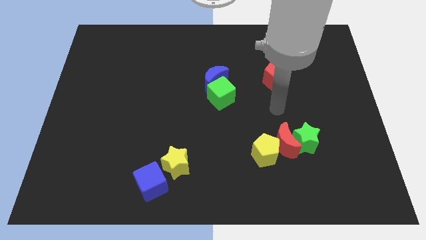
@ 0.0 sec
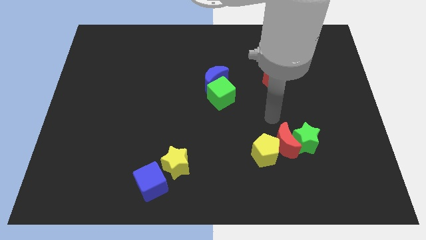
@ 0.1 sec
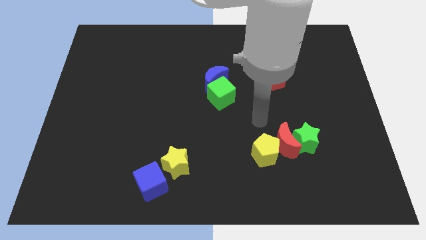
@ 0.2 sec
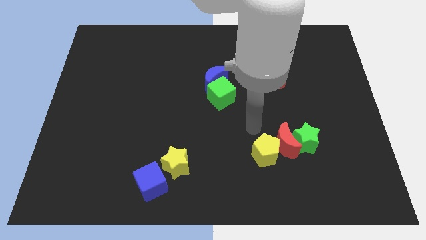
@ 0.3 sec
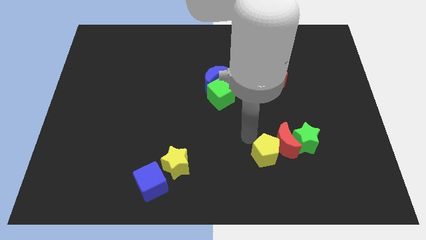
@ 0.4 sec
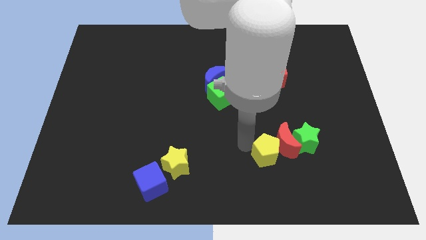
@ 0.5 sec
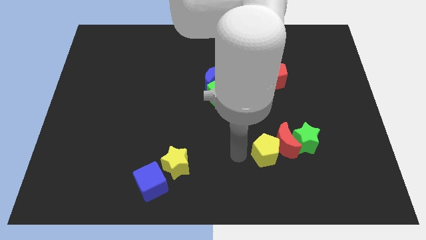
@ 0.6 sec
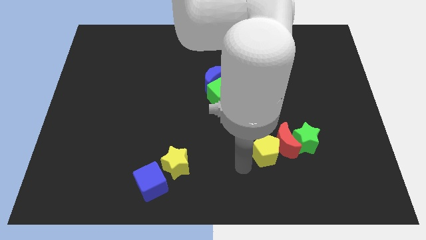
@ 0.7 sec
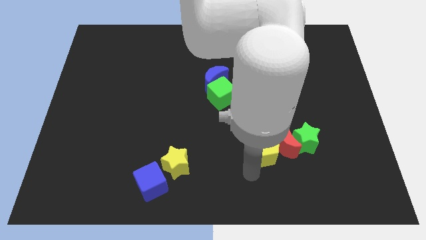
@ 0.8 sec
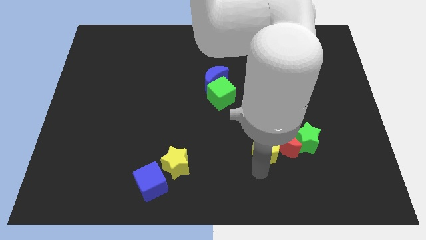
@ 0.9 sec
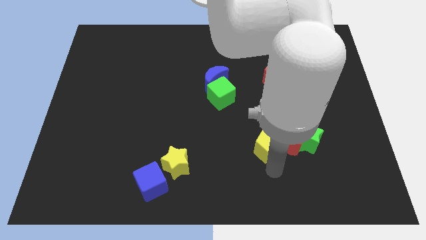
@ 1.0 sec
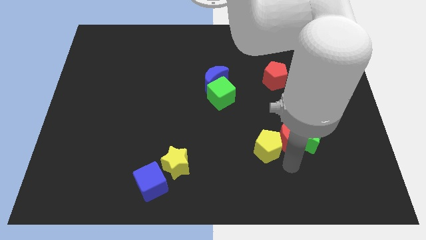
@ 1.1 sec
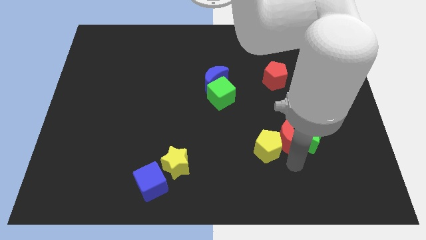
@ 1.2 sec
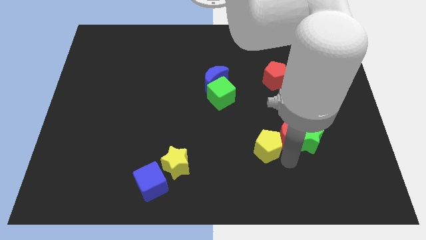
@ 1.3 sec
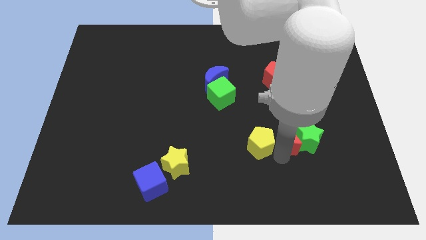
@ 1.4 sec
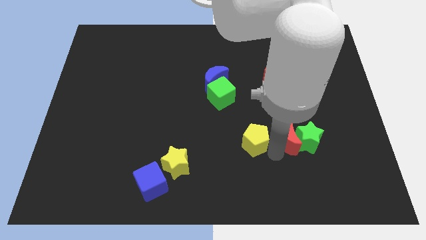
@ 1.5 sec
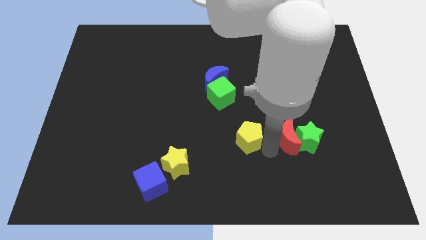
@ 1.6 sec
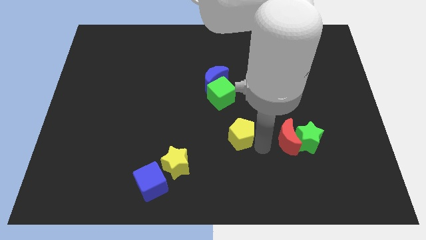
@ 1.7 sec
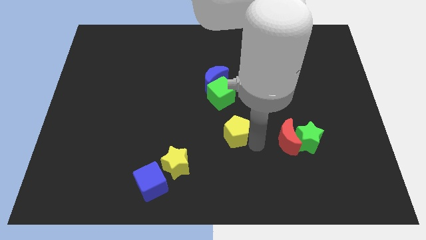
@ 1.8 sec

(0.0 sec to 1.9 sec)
slightly move the yellow pentagon up and to the left diagonally

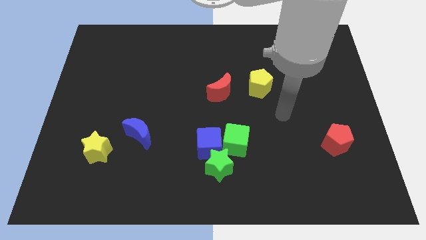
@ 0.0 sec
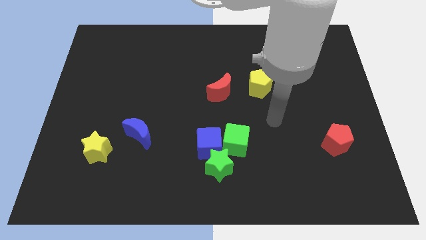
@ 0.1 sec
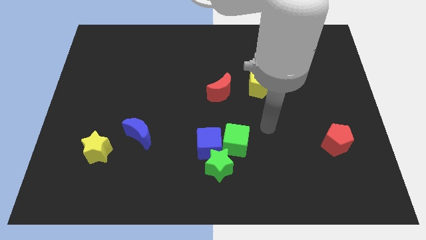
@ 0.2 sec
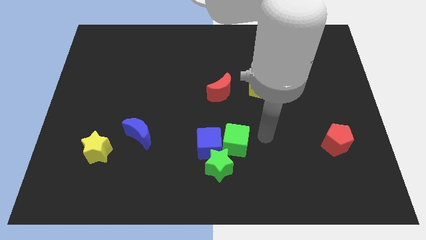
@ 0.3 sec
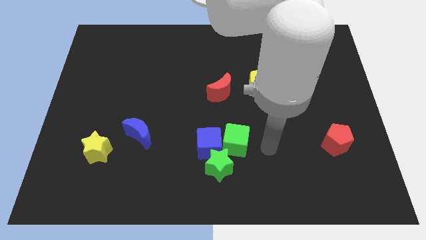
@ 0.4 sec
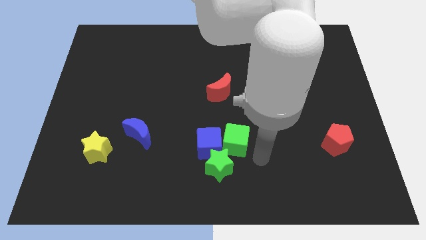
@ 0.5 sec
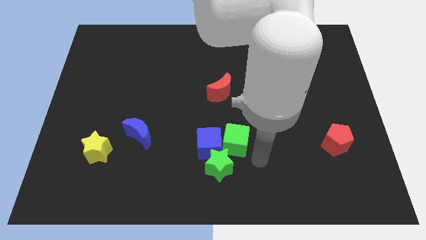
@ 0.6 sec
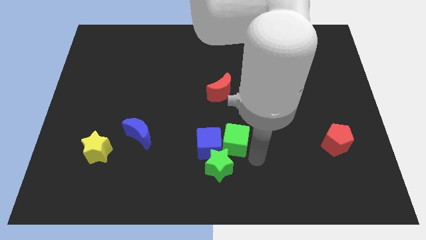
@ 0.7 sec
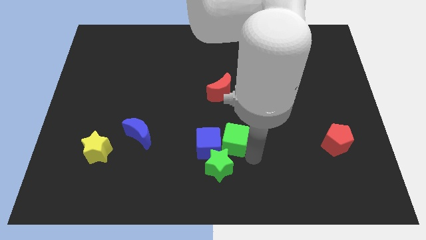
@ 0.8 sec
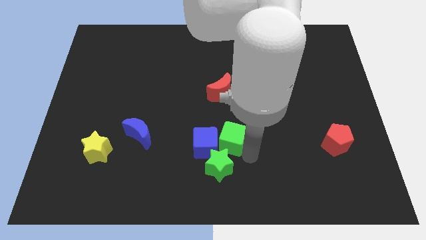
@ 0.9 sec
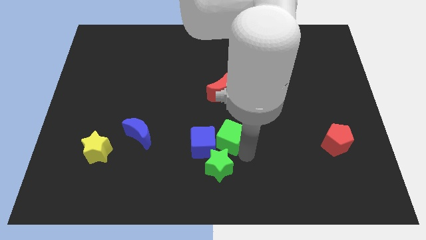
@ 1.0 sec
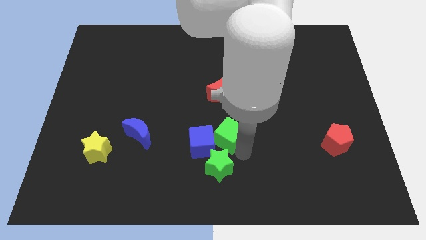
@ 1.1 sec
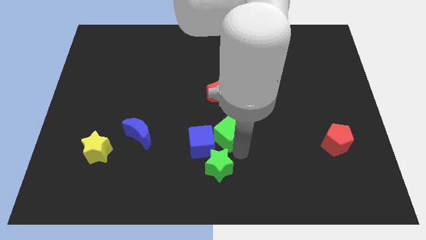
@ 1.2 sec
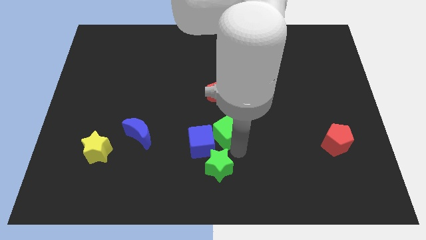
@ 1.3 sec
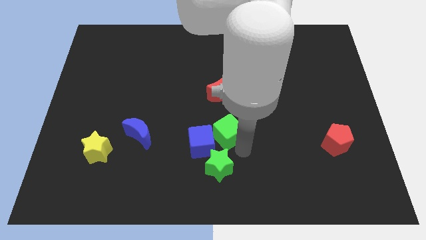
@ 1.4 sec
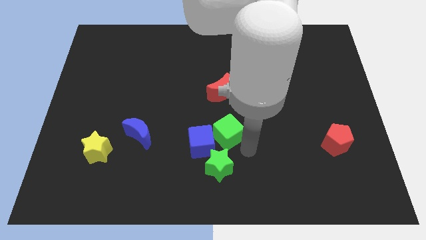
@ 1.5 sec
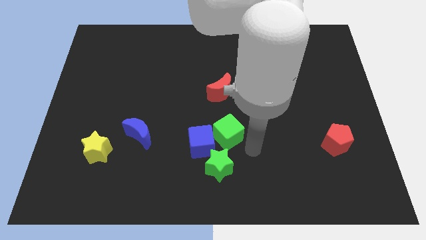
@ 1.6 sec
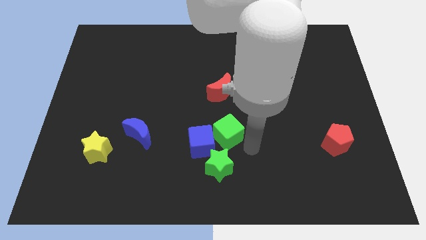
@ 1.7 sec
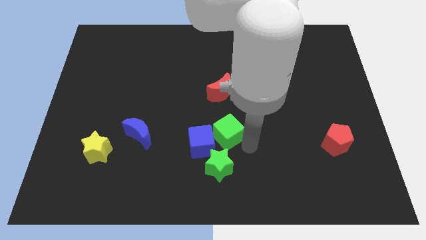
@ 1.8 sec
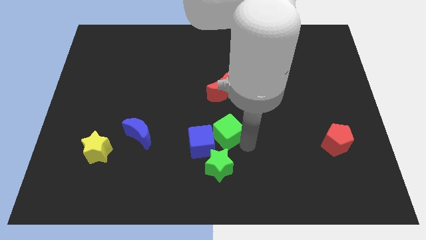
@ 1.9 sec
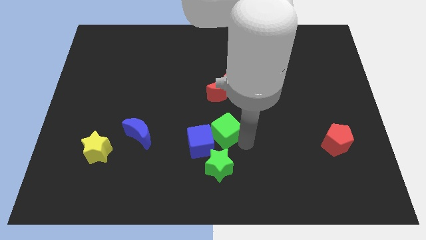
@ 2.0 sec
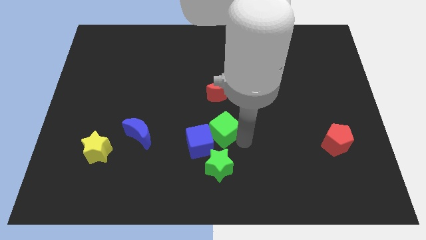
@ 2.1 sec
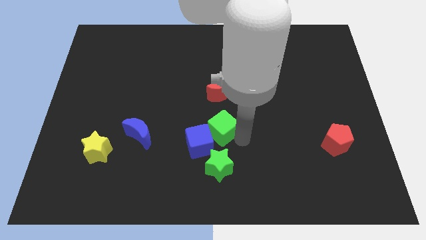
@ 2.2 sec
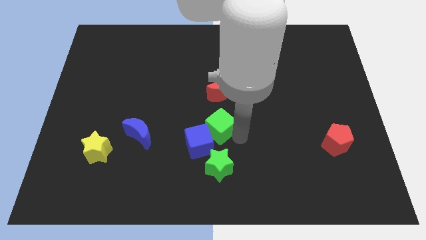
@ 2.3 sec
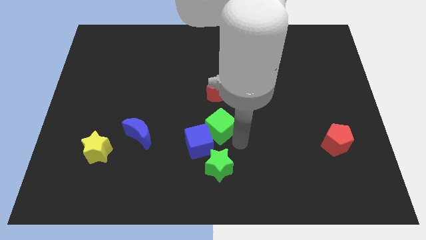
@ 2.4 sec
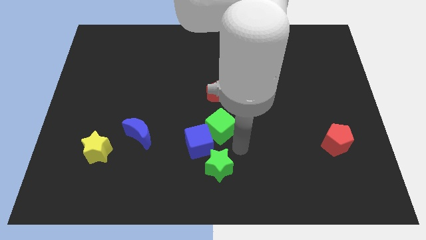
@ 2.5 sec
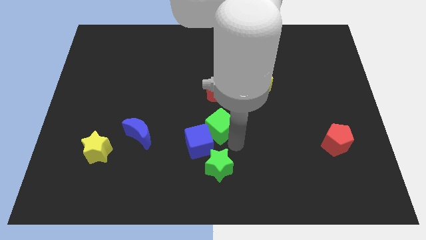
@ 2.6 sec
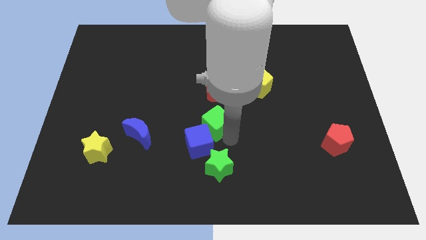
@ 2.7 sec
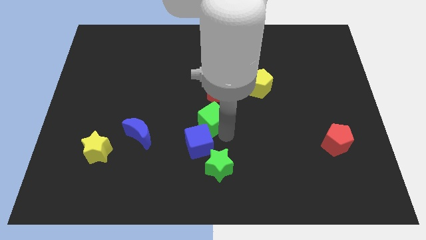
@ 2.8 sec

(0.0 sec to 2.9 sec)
slide the green cube up and left a little

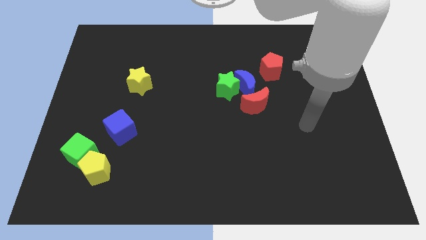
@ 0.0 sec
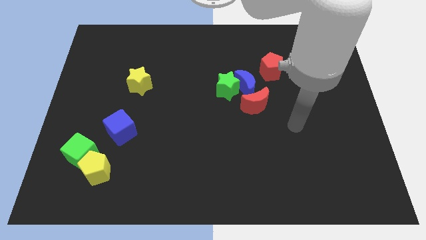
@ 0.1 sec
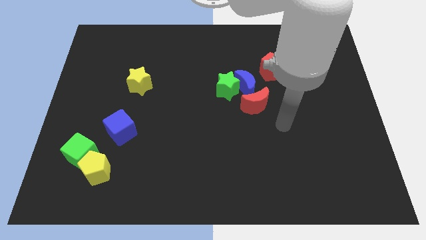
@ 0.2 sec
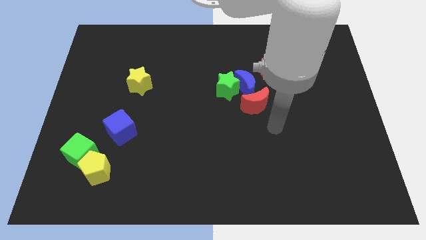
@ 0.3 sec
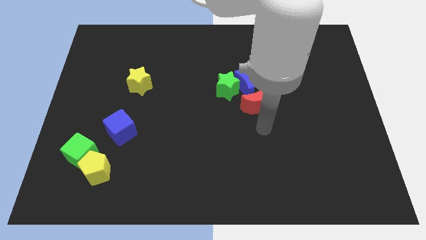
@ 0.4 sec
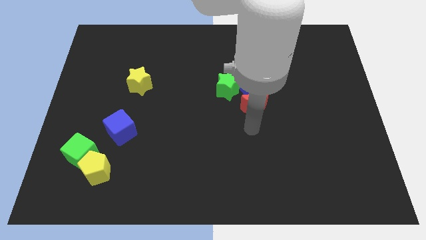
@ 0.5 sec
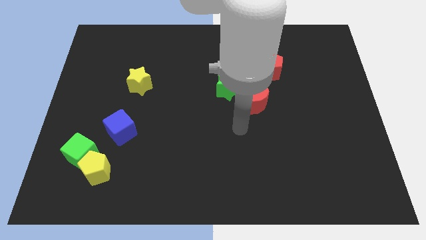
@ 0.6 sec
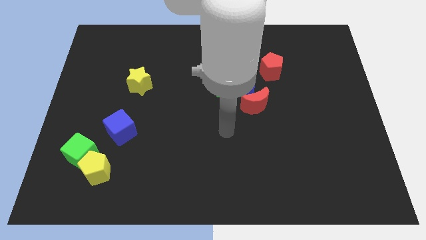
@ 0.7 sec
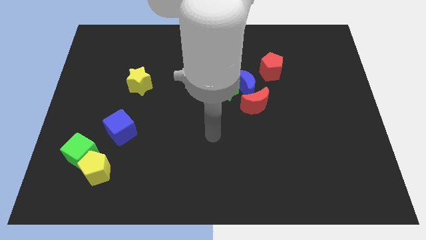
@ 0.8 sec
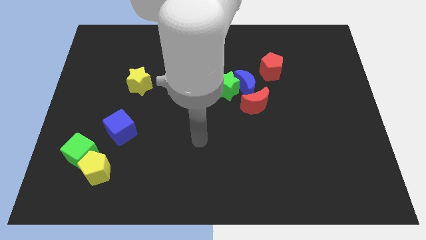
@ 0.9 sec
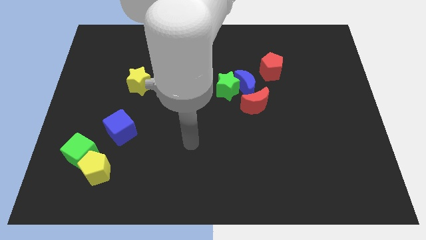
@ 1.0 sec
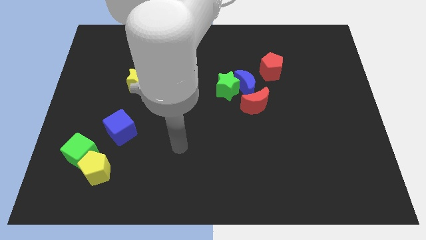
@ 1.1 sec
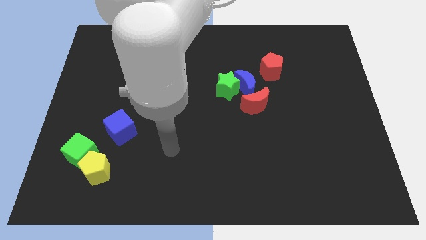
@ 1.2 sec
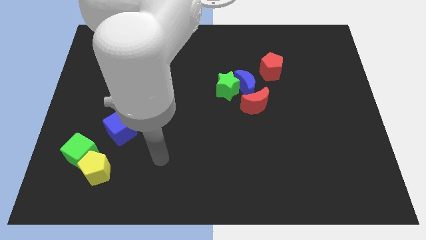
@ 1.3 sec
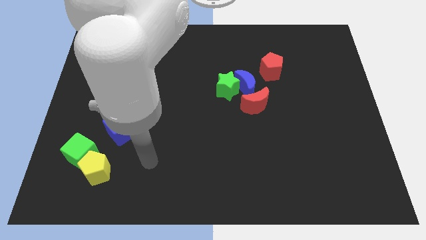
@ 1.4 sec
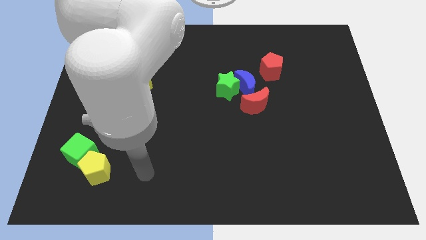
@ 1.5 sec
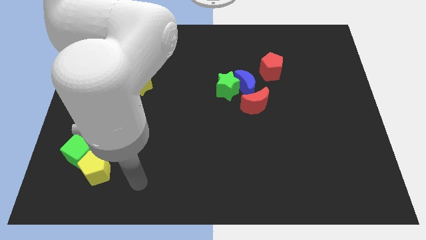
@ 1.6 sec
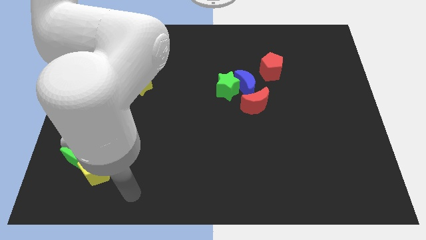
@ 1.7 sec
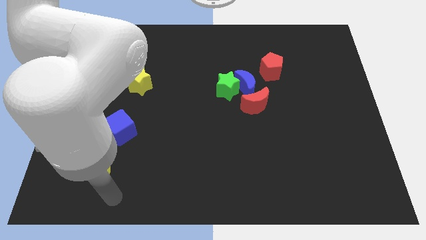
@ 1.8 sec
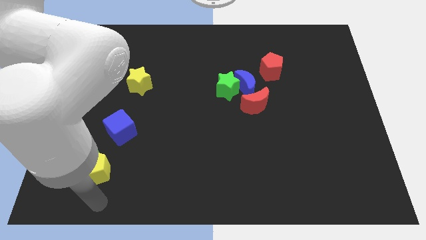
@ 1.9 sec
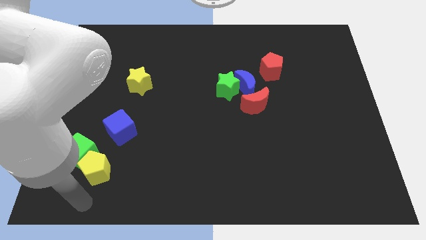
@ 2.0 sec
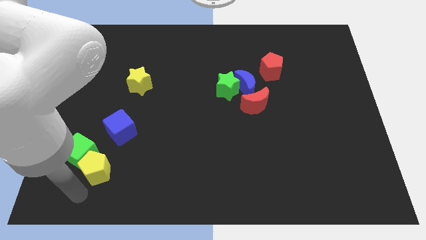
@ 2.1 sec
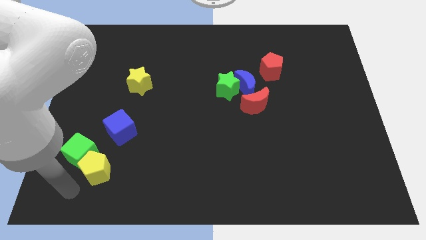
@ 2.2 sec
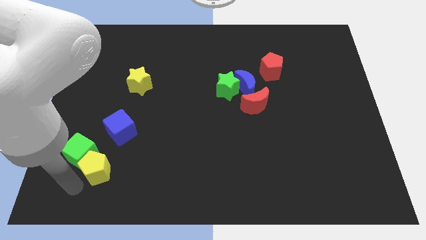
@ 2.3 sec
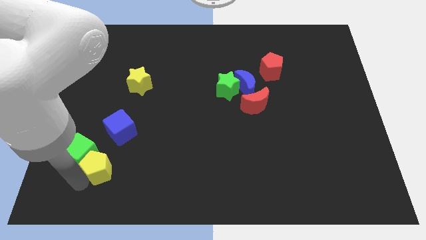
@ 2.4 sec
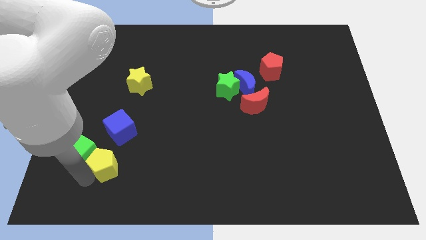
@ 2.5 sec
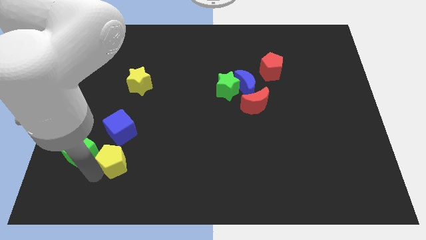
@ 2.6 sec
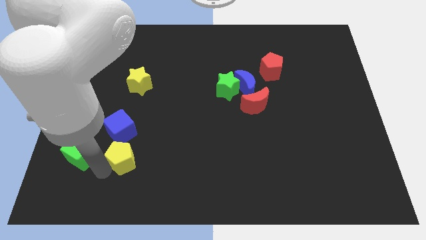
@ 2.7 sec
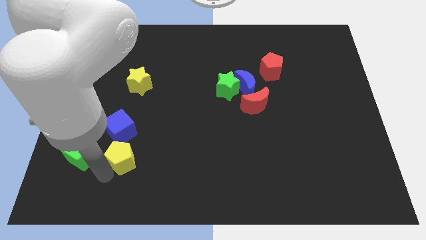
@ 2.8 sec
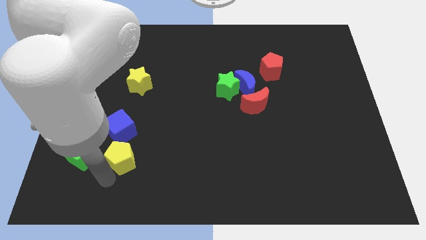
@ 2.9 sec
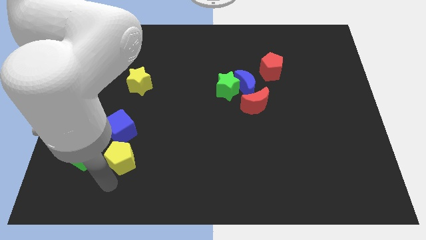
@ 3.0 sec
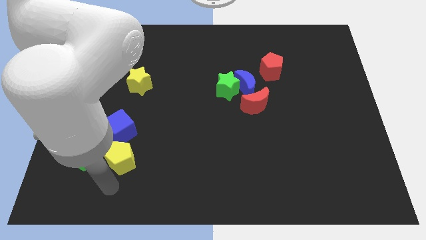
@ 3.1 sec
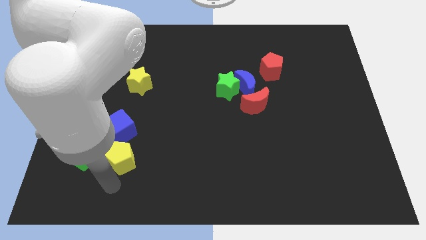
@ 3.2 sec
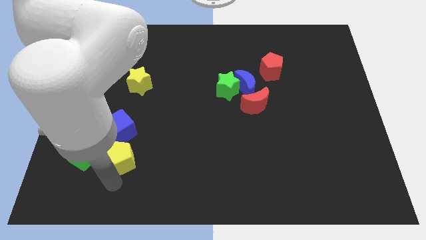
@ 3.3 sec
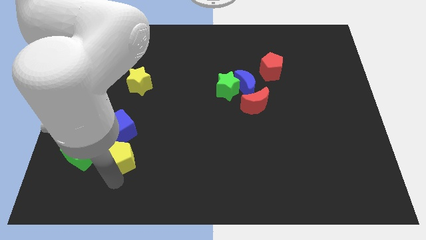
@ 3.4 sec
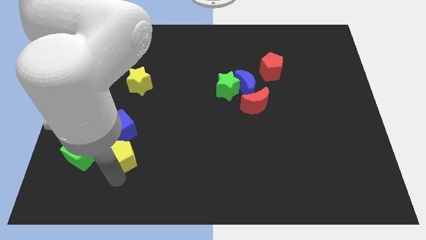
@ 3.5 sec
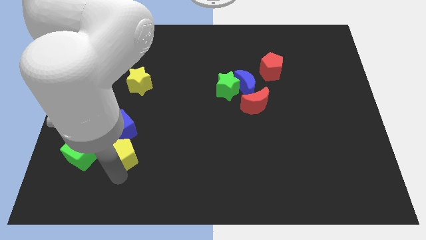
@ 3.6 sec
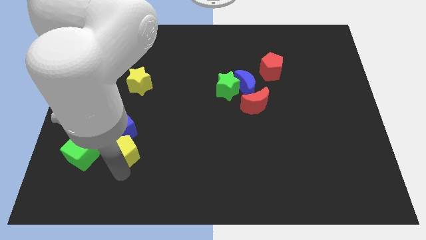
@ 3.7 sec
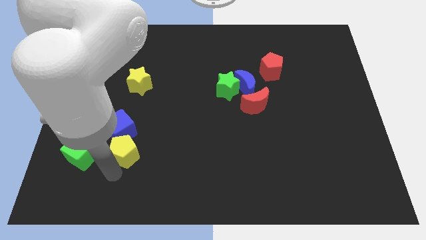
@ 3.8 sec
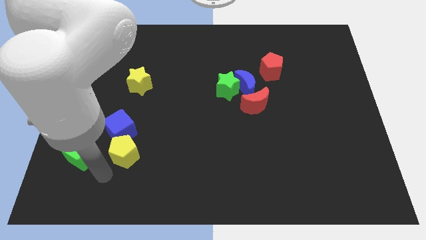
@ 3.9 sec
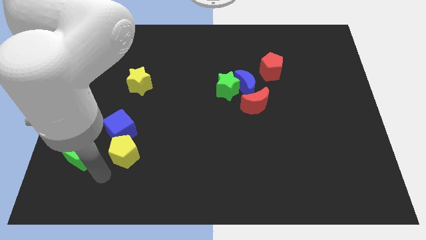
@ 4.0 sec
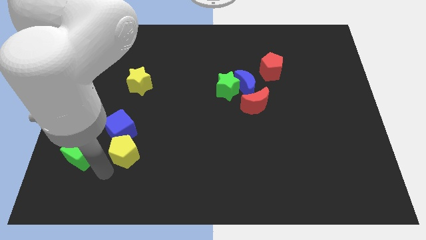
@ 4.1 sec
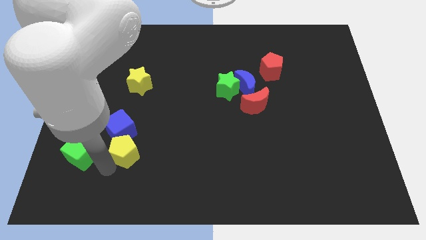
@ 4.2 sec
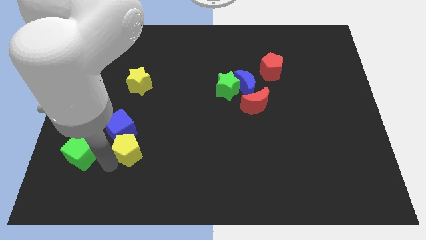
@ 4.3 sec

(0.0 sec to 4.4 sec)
move the yellow pentagon up and right diagonally slightly
